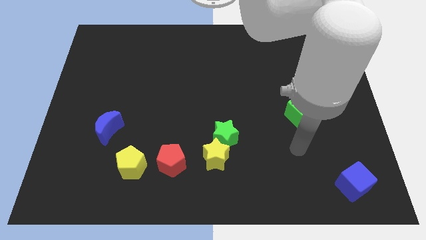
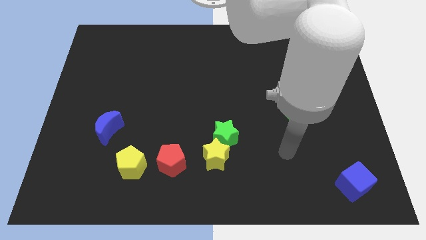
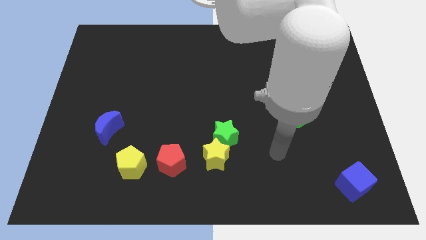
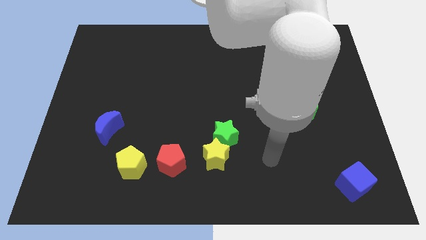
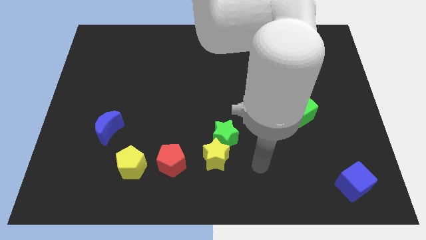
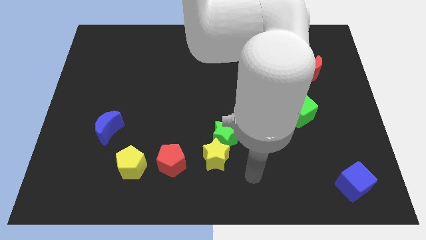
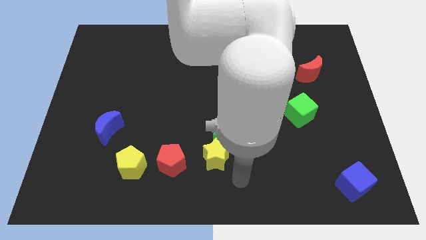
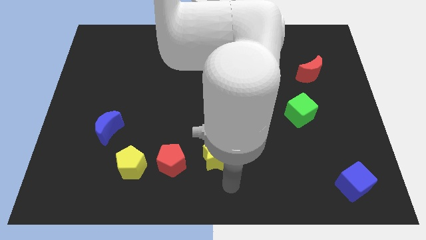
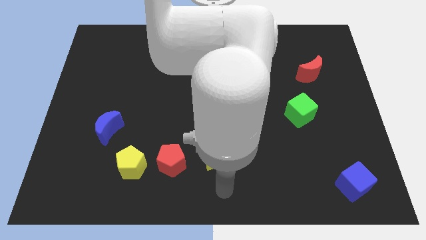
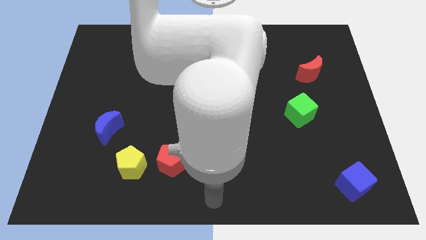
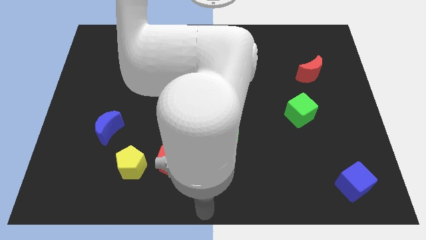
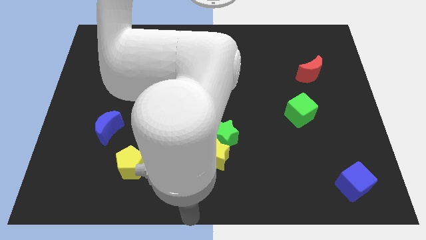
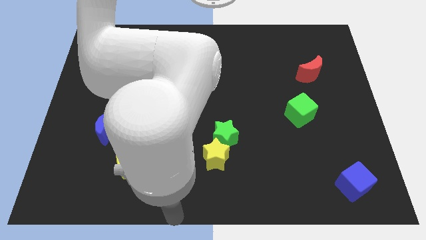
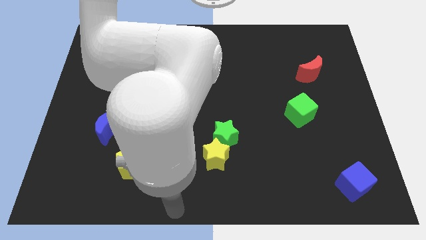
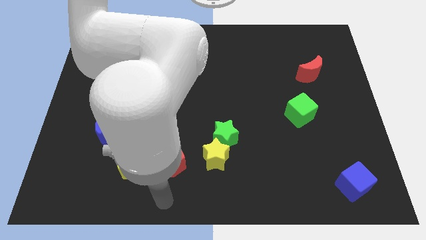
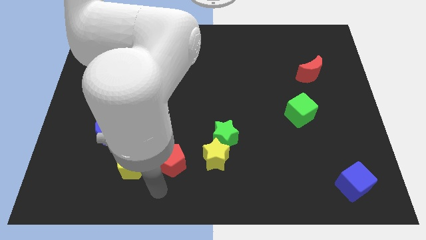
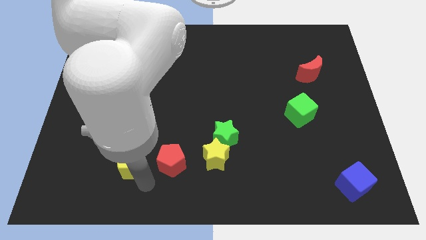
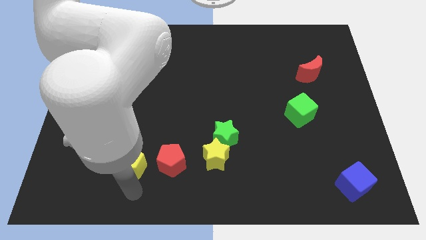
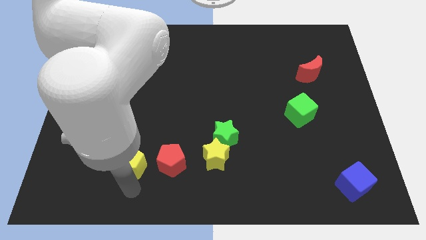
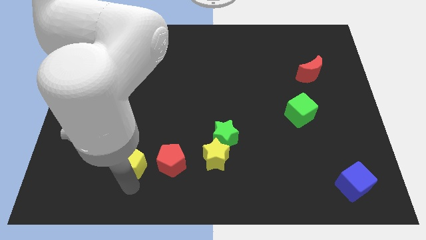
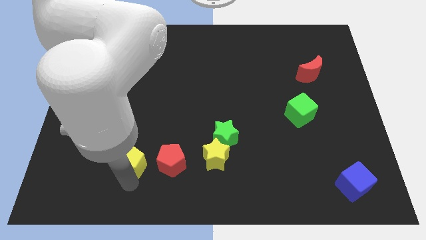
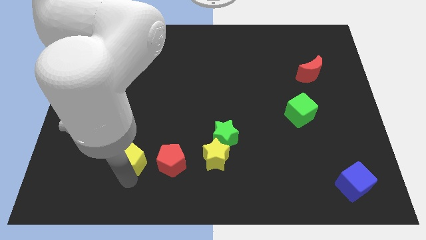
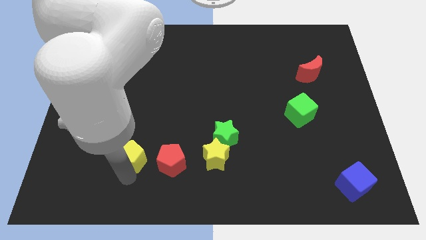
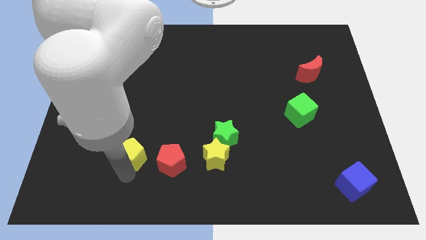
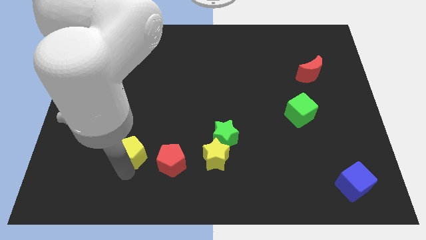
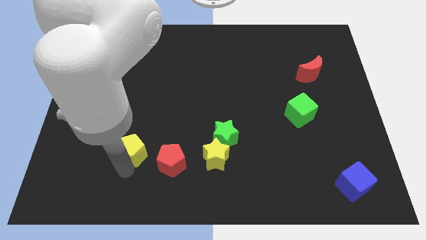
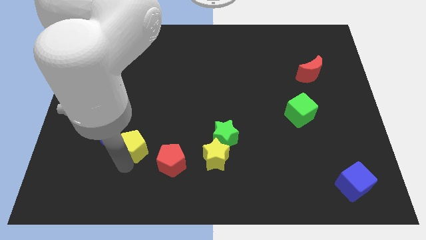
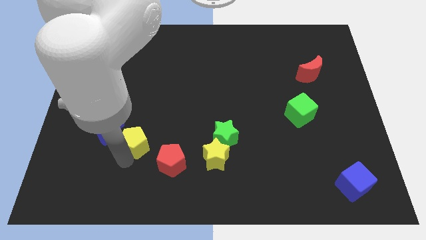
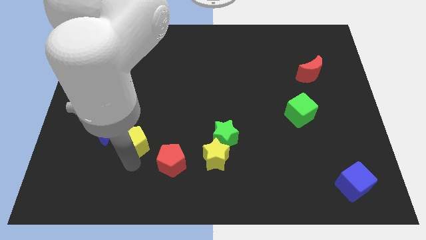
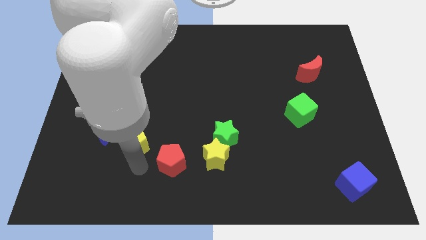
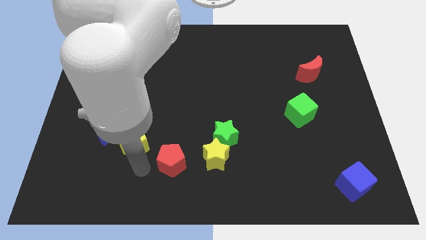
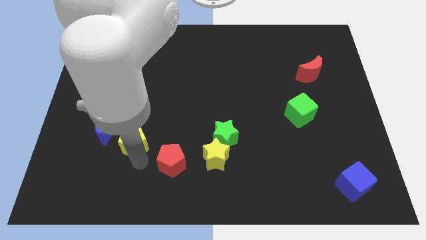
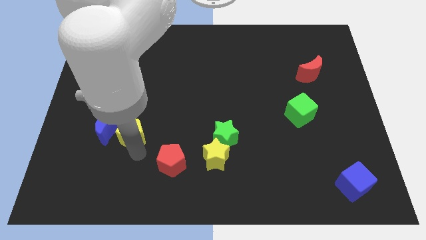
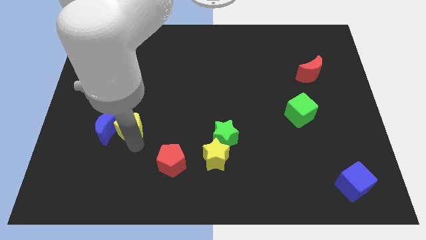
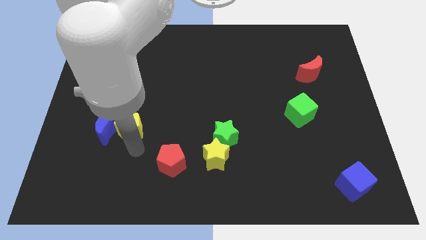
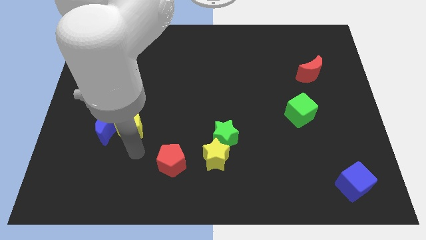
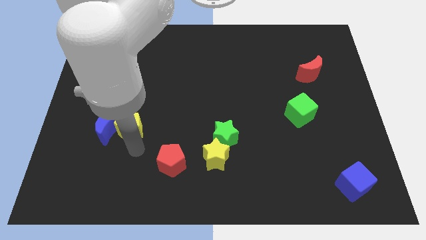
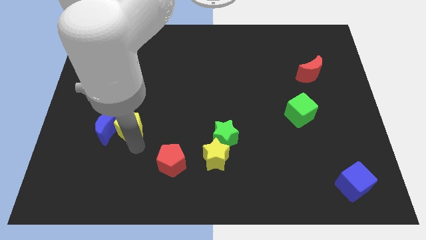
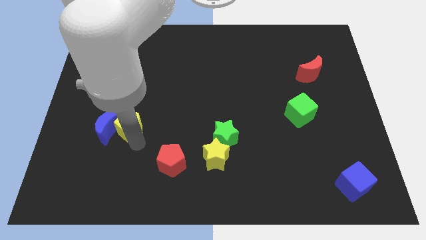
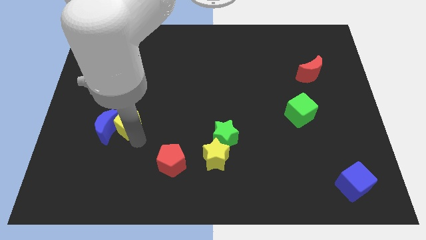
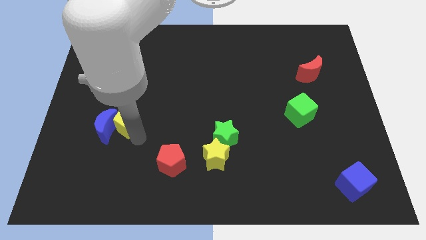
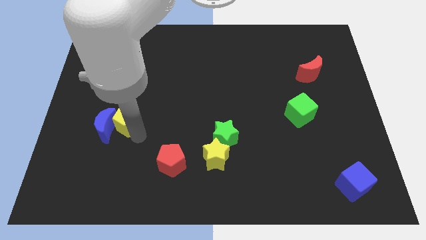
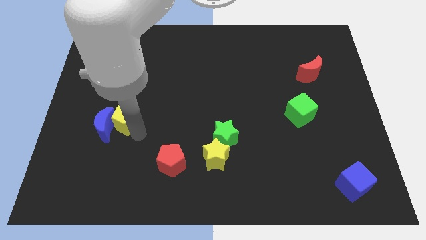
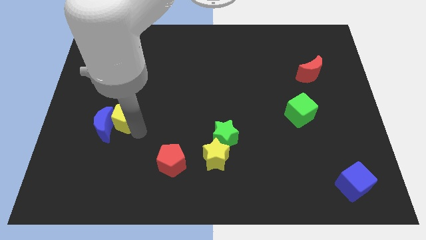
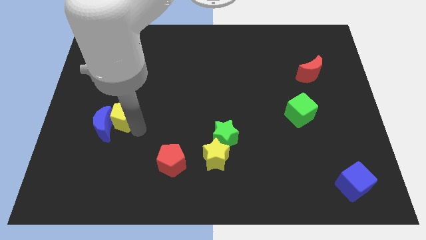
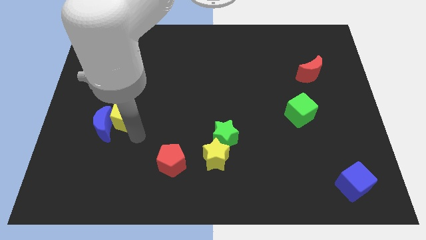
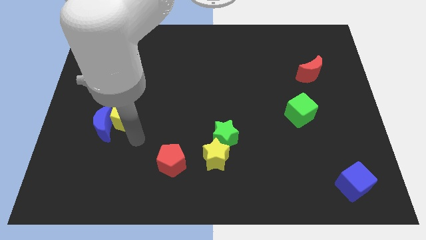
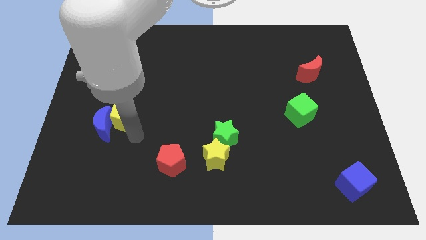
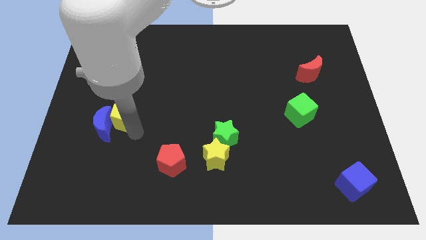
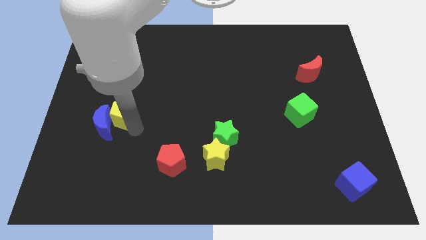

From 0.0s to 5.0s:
push the yellow pentagon to the top side of the blue moon

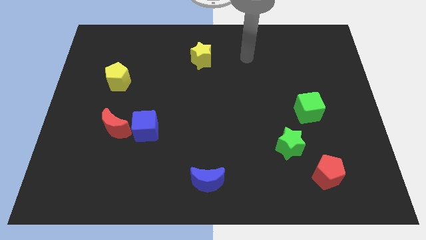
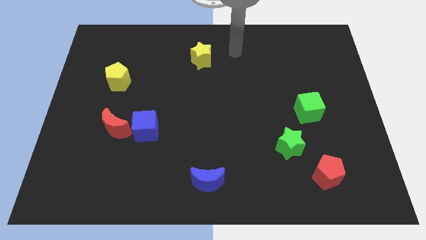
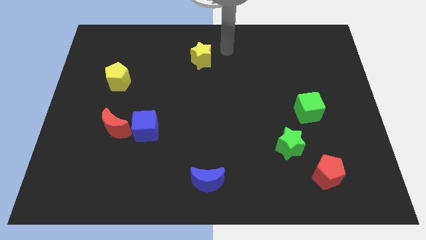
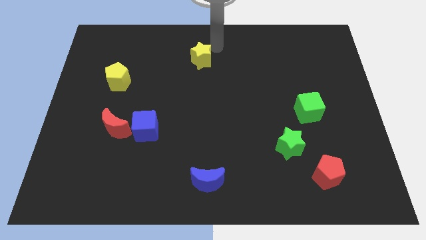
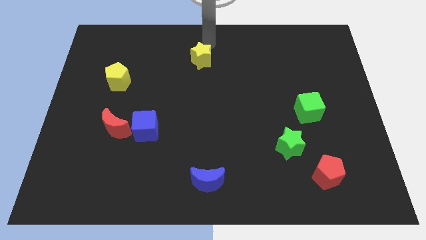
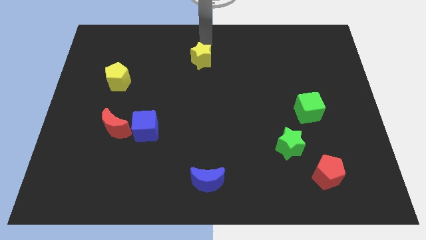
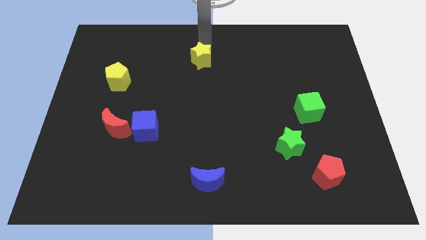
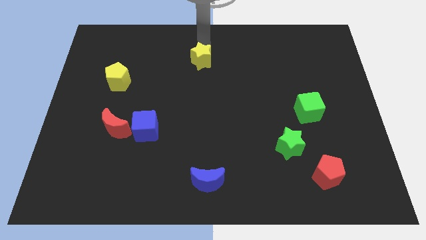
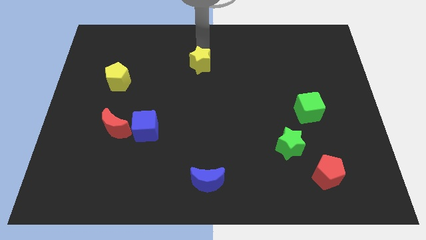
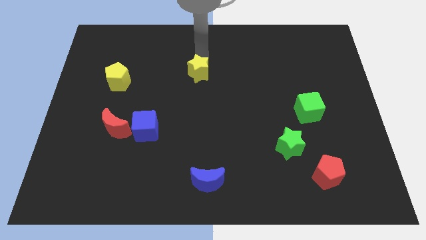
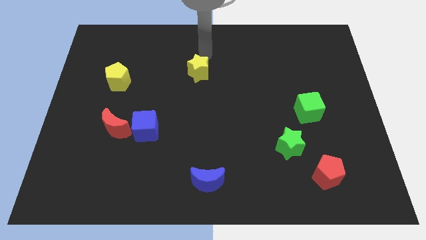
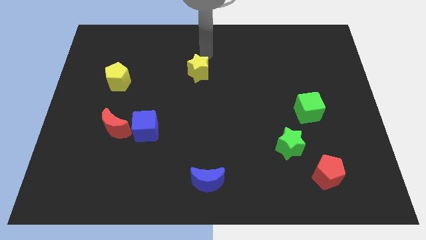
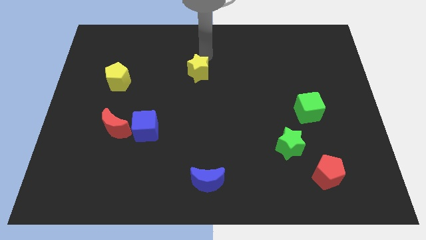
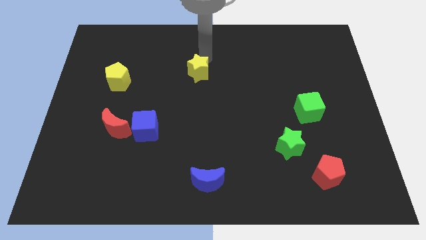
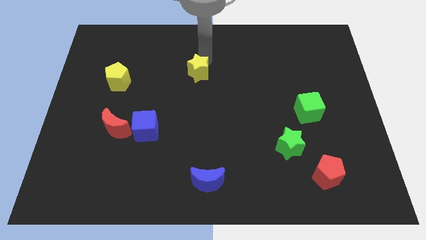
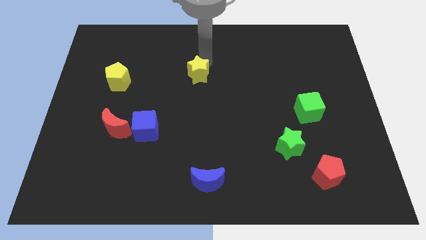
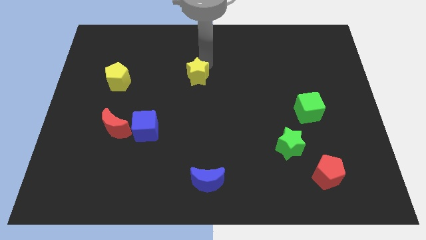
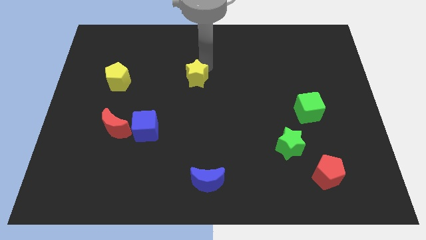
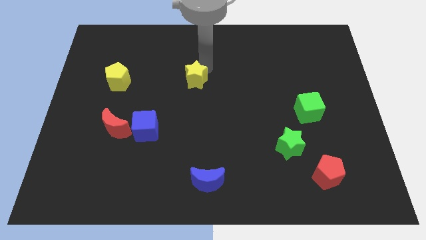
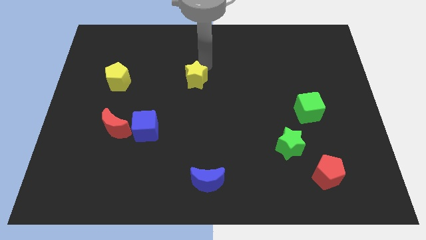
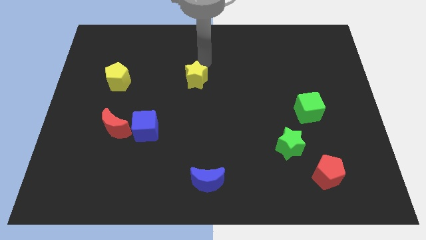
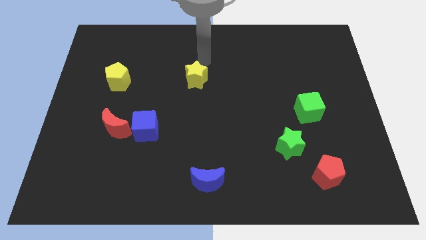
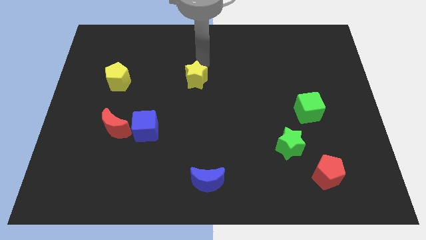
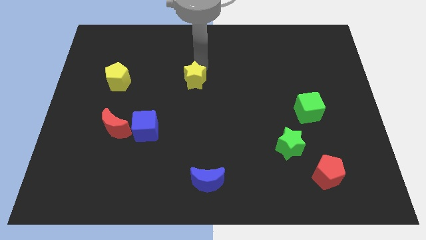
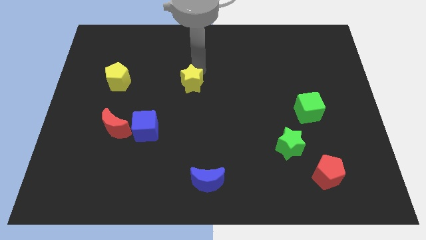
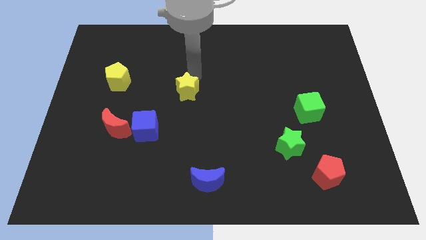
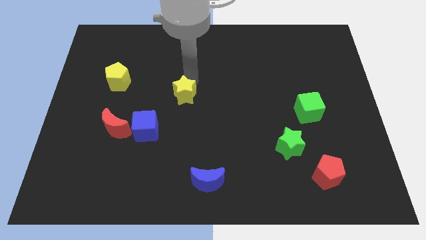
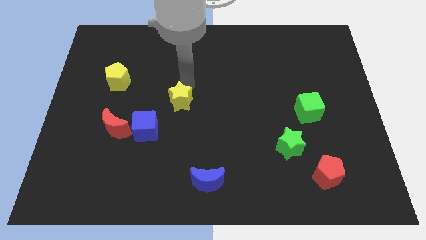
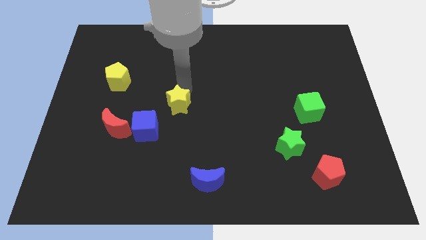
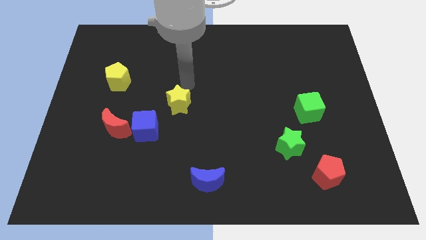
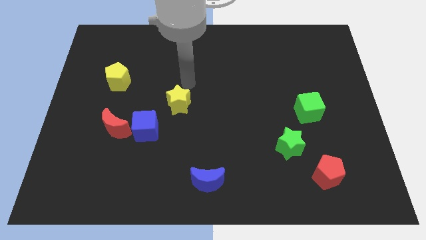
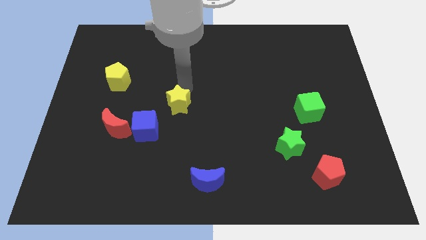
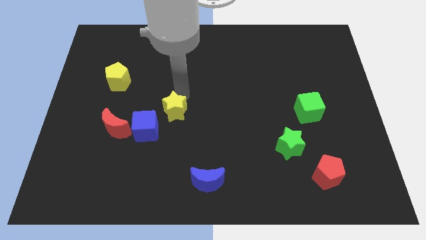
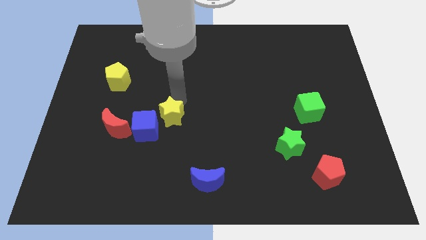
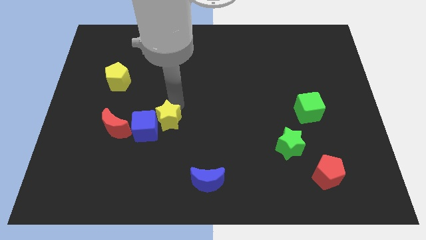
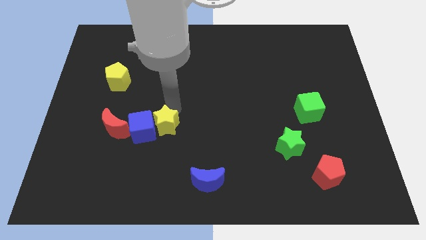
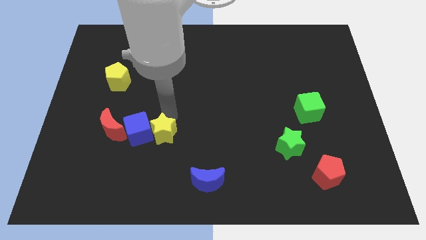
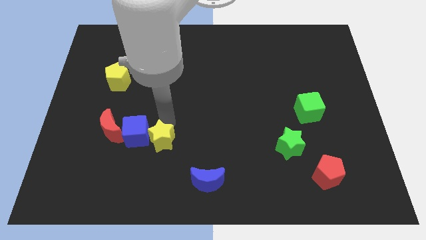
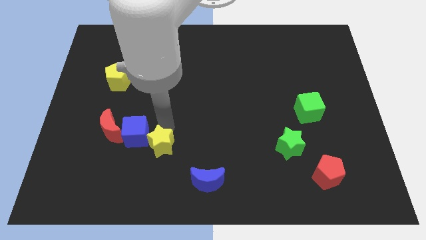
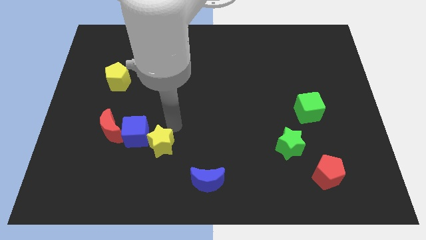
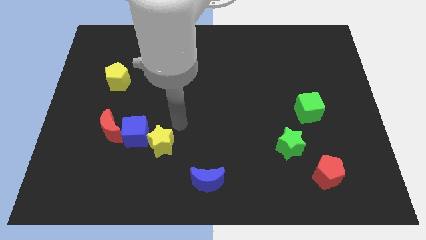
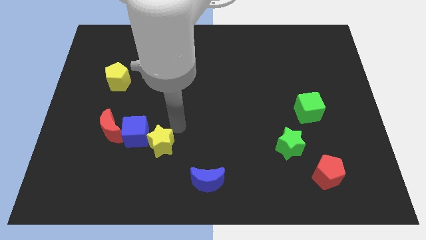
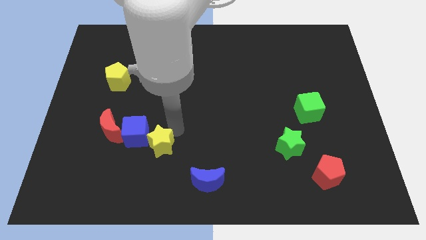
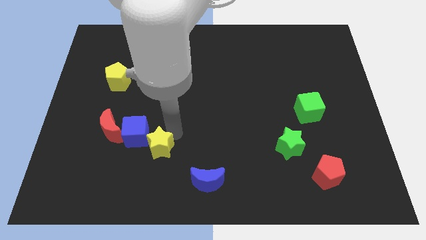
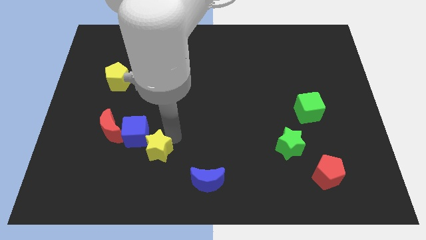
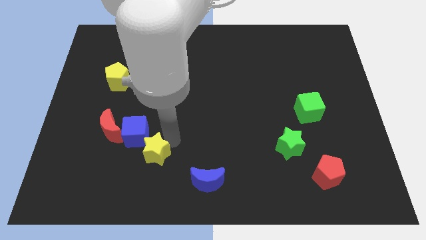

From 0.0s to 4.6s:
put the yellow star to the bottom side of the blue cube
